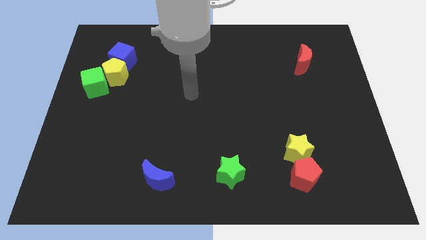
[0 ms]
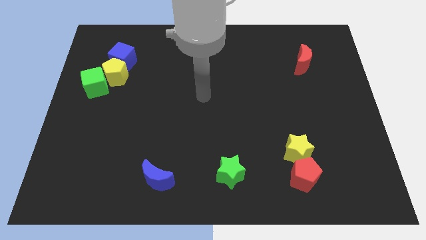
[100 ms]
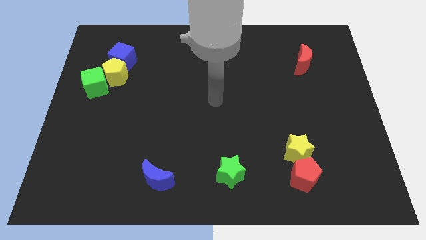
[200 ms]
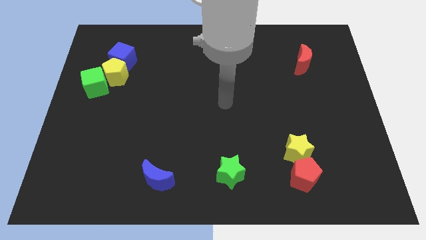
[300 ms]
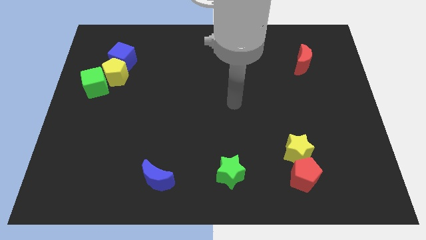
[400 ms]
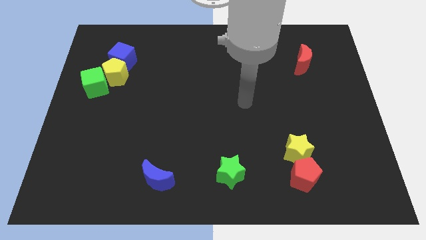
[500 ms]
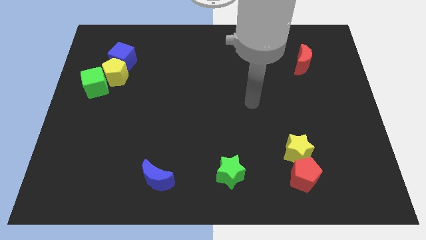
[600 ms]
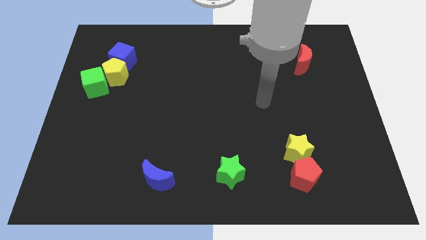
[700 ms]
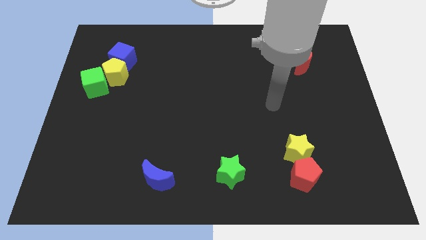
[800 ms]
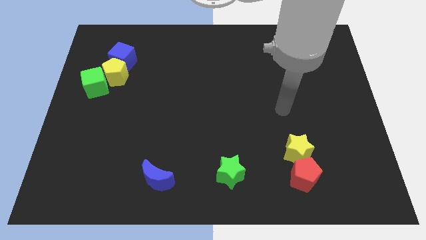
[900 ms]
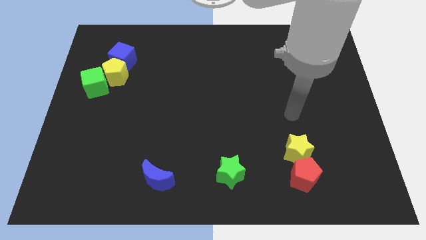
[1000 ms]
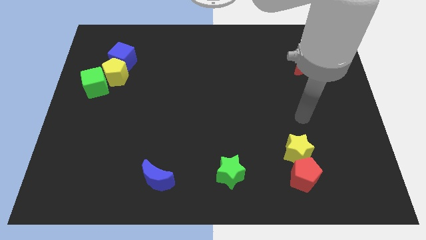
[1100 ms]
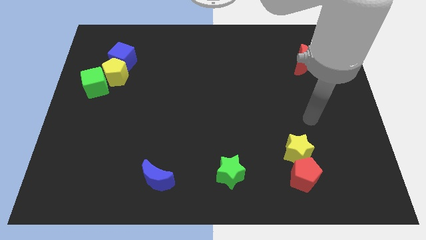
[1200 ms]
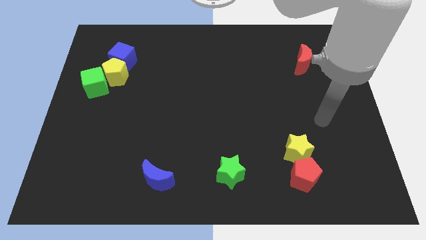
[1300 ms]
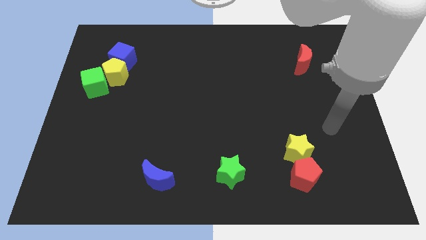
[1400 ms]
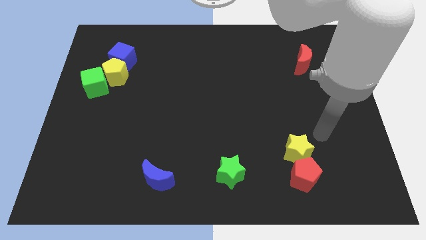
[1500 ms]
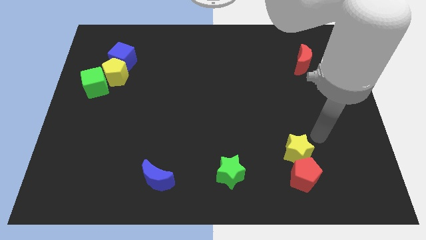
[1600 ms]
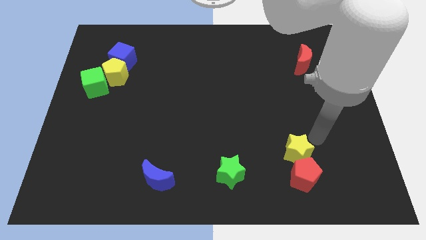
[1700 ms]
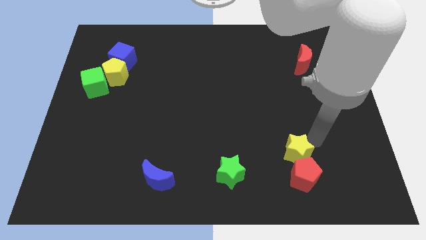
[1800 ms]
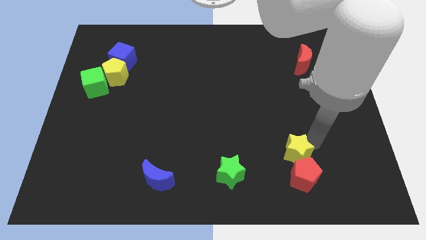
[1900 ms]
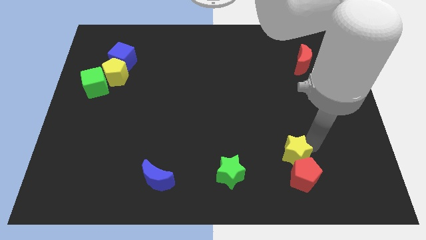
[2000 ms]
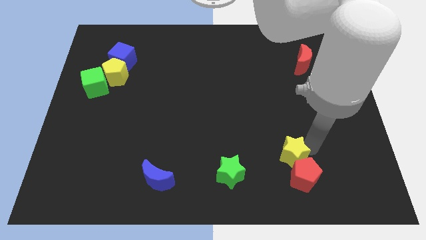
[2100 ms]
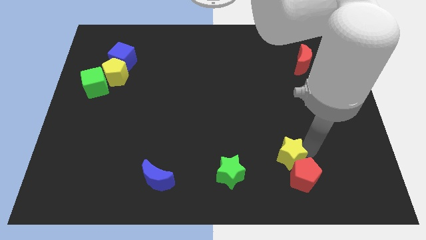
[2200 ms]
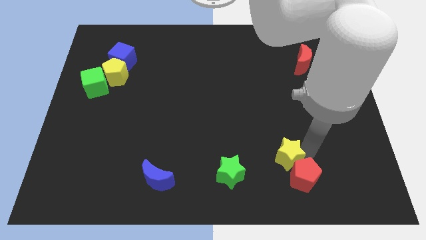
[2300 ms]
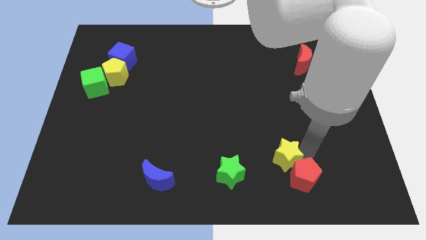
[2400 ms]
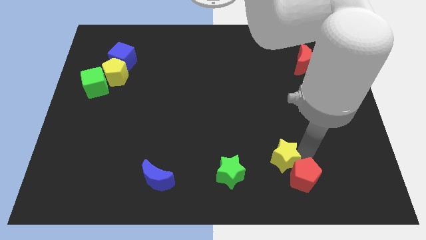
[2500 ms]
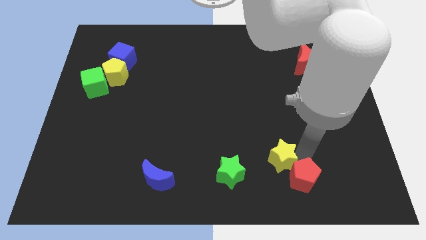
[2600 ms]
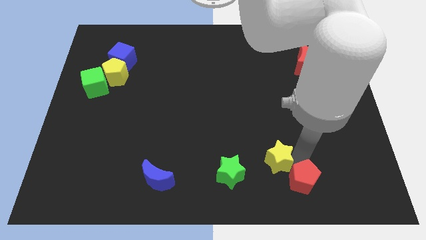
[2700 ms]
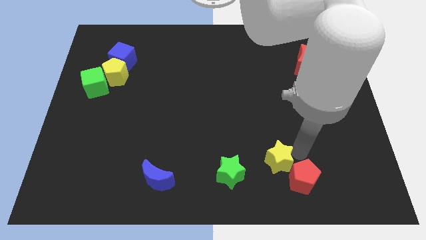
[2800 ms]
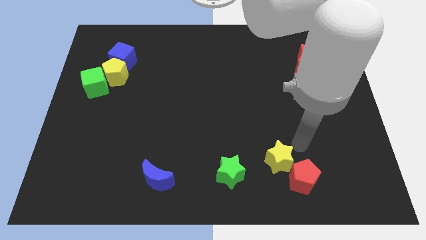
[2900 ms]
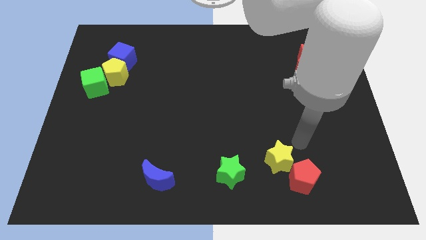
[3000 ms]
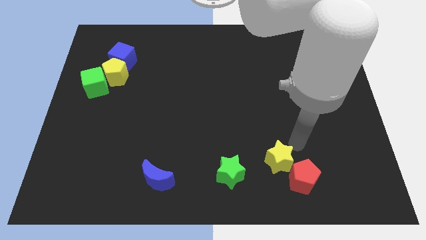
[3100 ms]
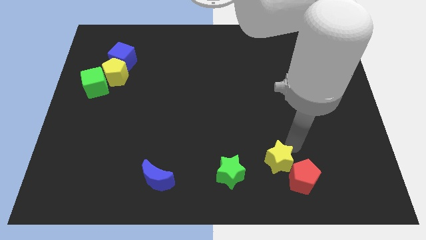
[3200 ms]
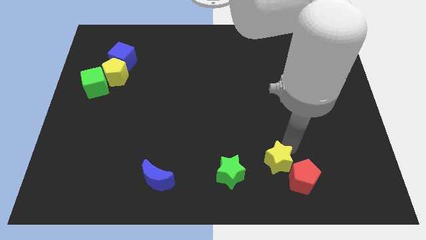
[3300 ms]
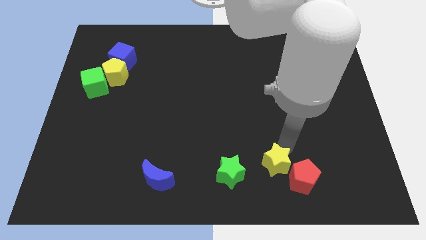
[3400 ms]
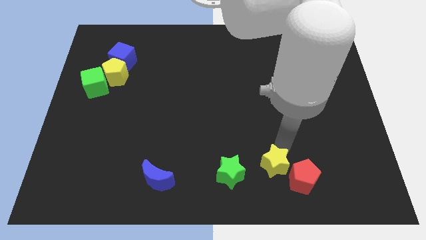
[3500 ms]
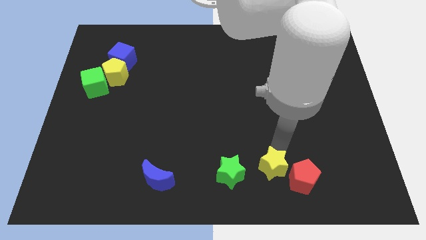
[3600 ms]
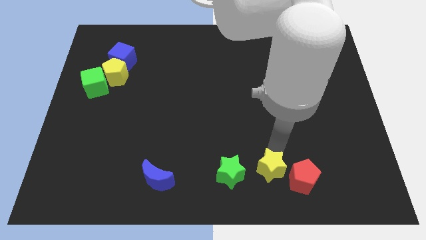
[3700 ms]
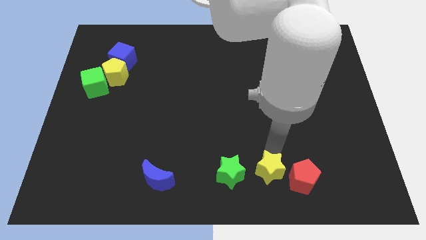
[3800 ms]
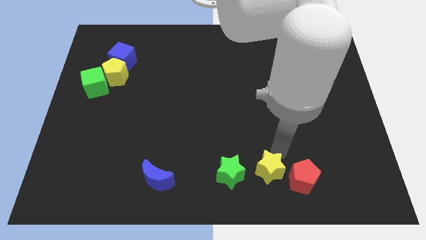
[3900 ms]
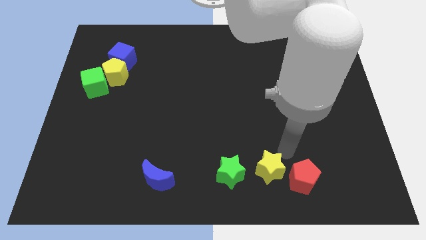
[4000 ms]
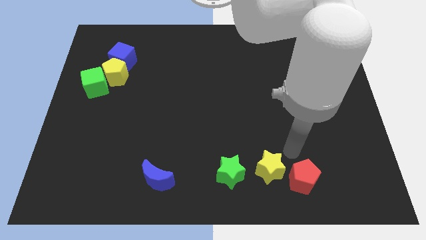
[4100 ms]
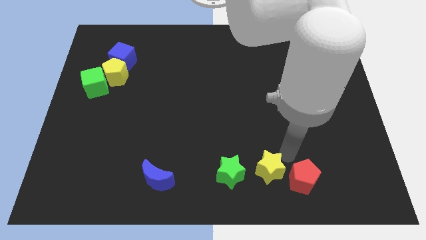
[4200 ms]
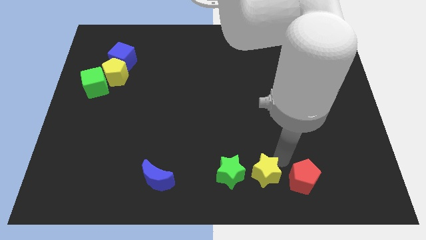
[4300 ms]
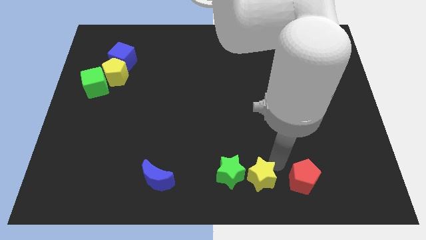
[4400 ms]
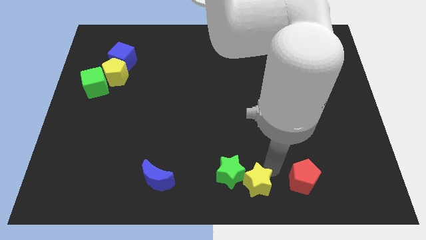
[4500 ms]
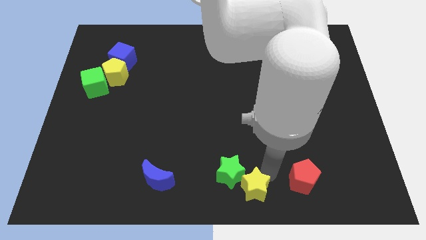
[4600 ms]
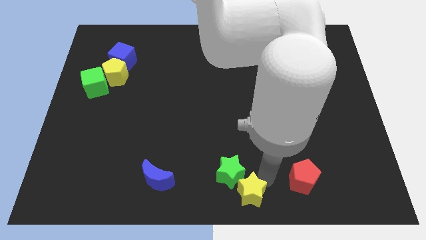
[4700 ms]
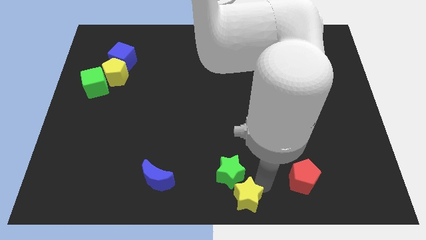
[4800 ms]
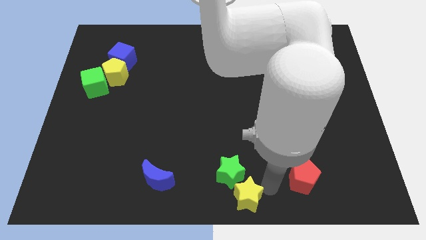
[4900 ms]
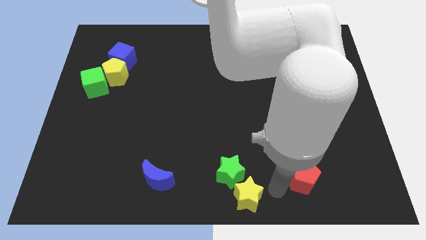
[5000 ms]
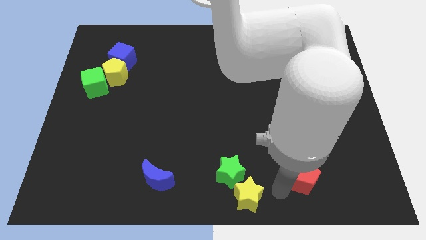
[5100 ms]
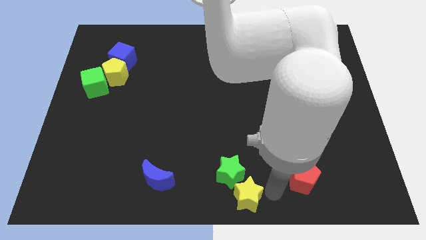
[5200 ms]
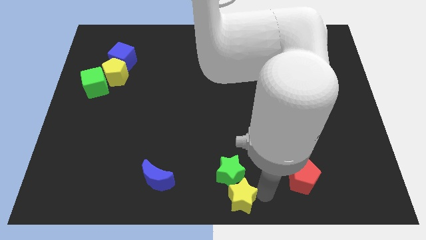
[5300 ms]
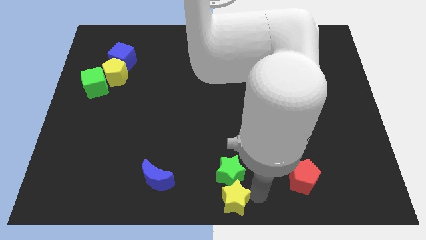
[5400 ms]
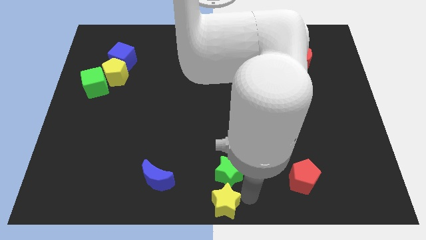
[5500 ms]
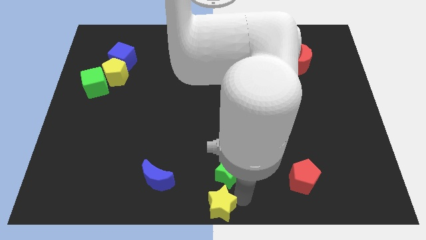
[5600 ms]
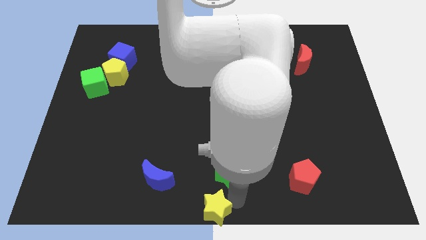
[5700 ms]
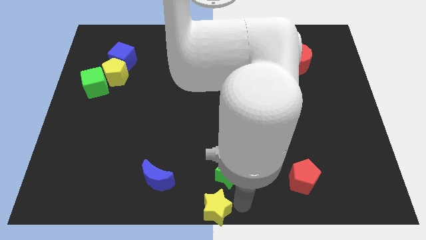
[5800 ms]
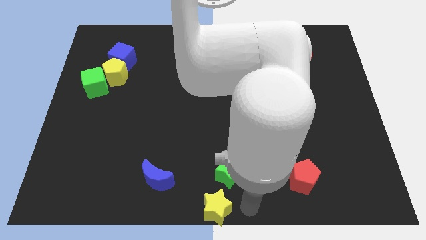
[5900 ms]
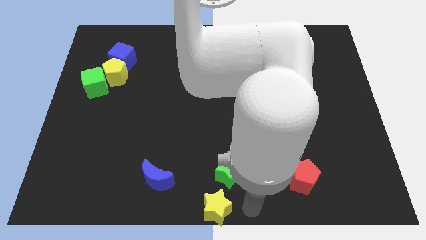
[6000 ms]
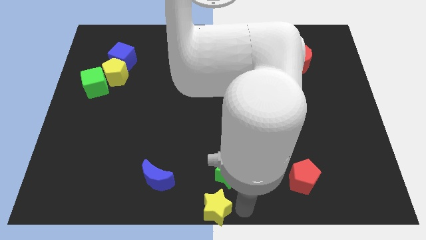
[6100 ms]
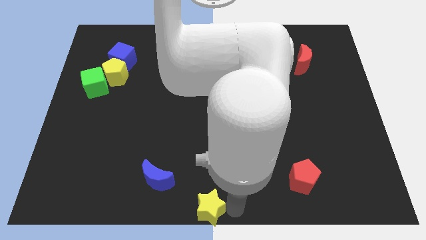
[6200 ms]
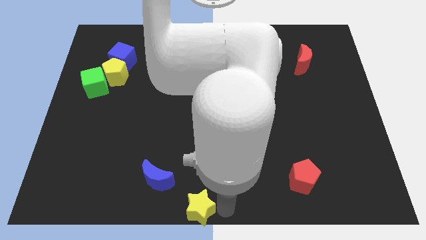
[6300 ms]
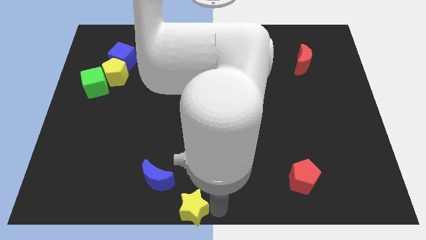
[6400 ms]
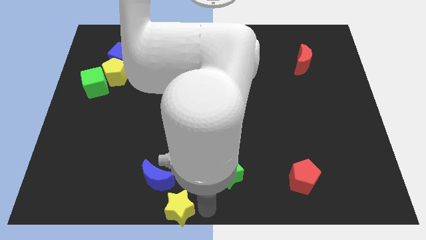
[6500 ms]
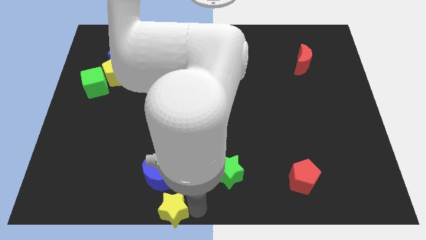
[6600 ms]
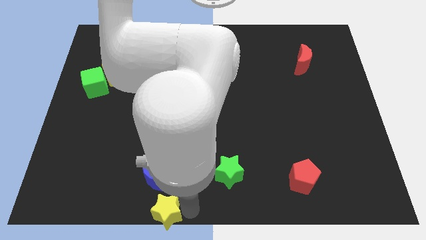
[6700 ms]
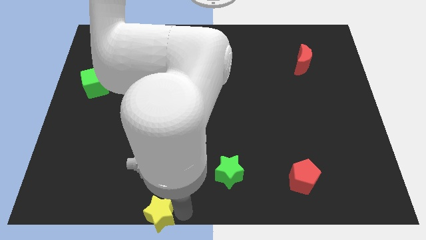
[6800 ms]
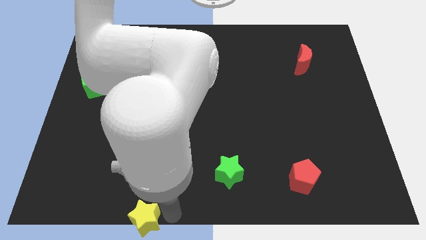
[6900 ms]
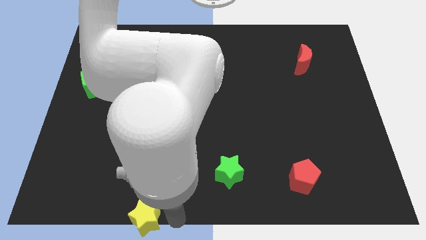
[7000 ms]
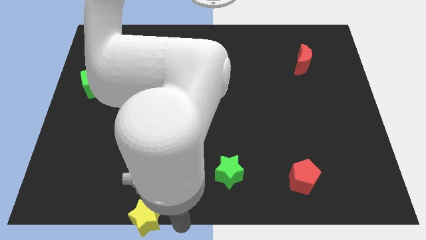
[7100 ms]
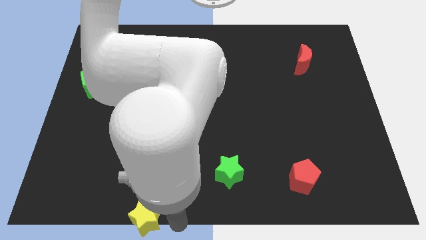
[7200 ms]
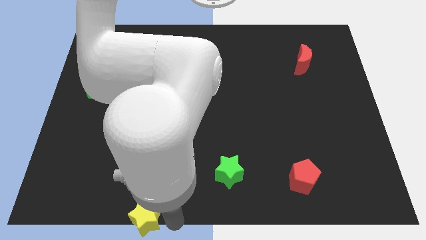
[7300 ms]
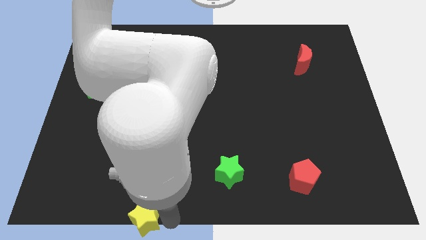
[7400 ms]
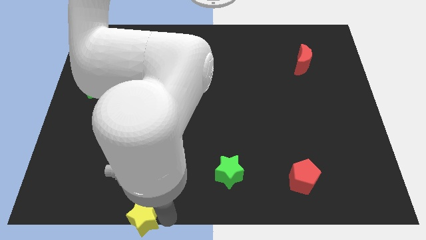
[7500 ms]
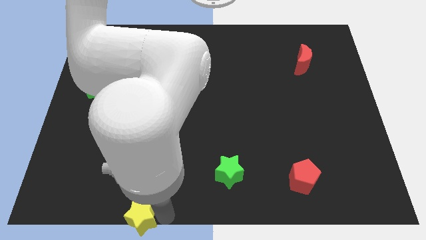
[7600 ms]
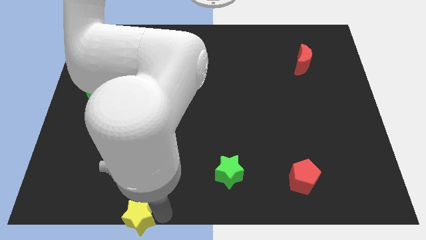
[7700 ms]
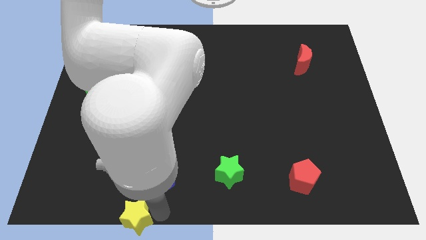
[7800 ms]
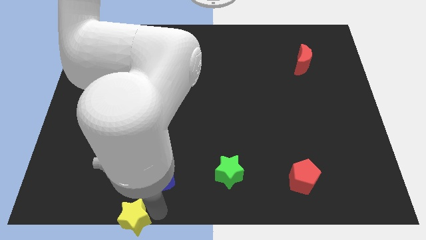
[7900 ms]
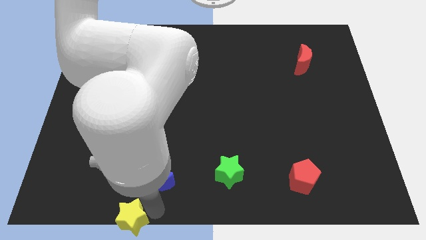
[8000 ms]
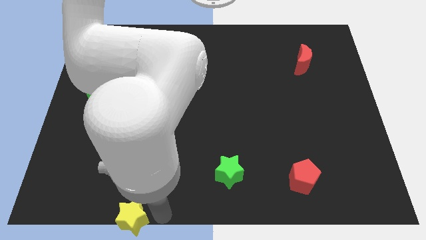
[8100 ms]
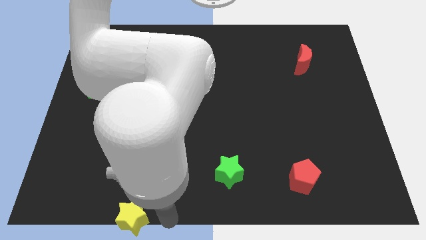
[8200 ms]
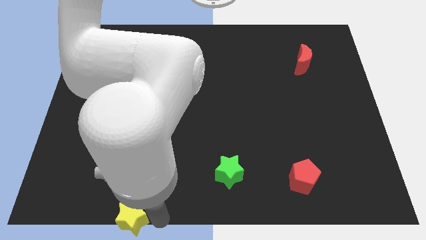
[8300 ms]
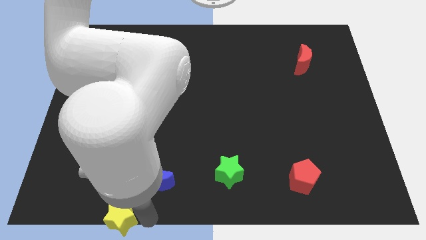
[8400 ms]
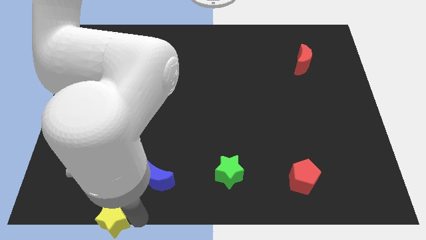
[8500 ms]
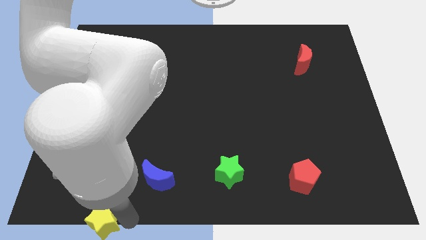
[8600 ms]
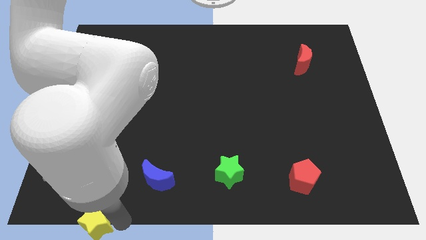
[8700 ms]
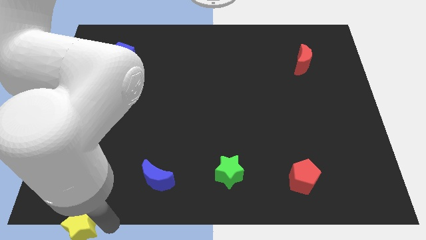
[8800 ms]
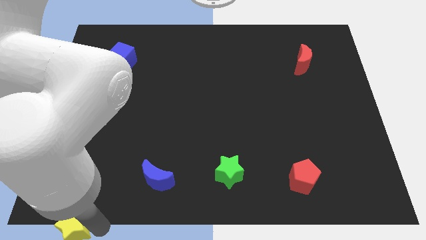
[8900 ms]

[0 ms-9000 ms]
move the yellow star to the lower left corner
